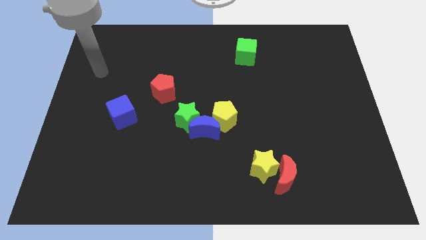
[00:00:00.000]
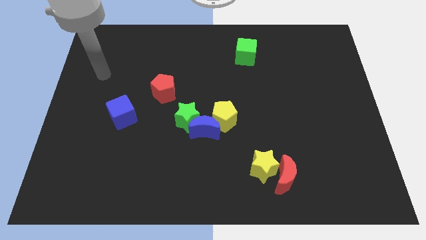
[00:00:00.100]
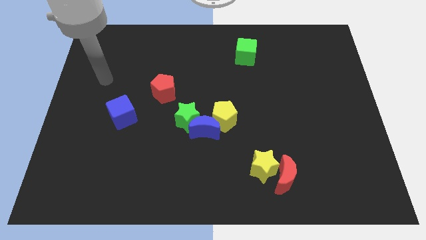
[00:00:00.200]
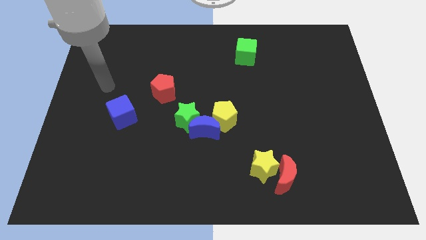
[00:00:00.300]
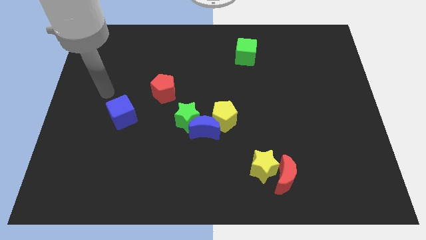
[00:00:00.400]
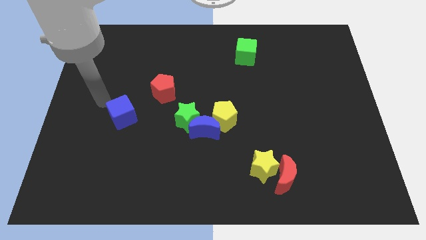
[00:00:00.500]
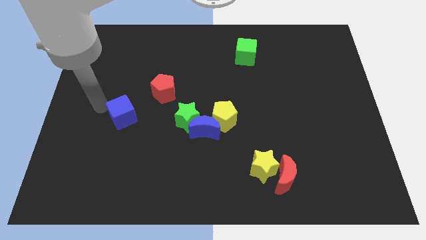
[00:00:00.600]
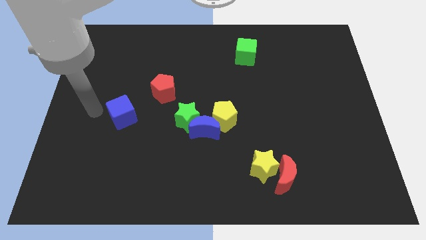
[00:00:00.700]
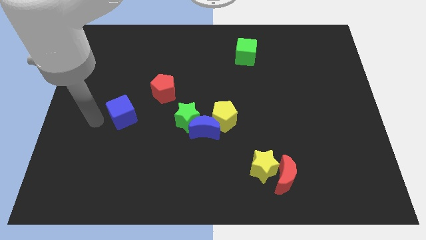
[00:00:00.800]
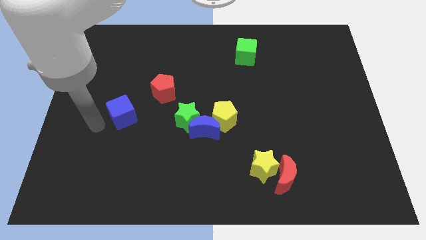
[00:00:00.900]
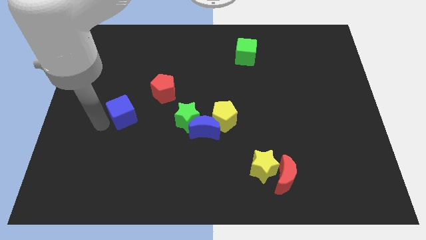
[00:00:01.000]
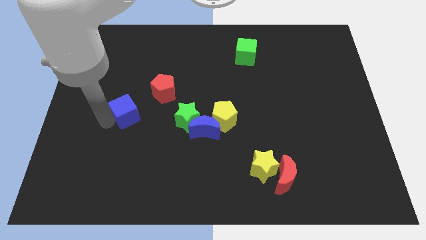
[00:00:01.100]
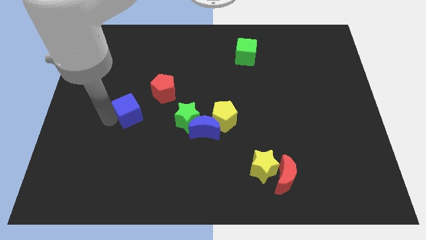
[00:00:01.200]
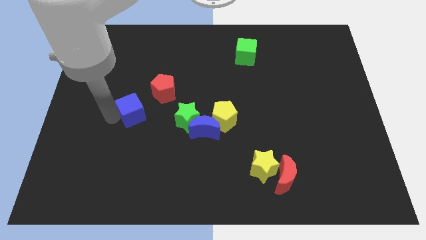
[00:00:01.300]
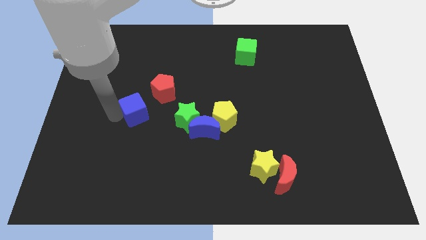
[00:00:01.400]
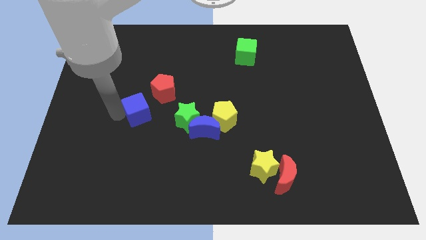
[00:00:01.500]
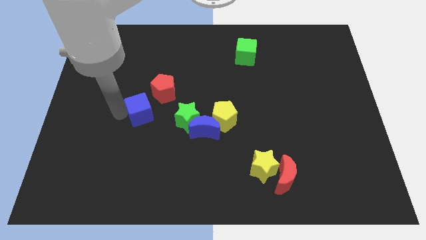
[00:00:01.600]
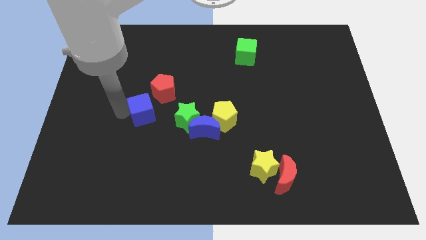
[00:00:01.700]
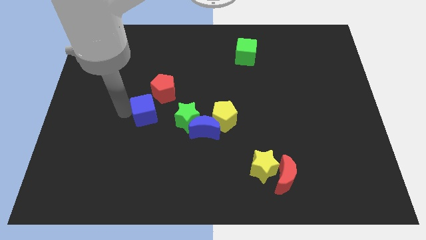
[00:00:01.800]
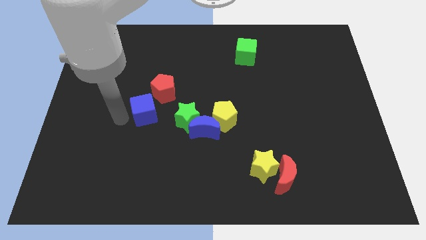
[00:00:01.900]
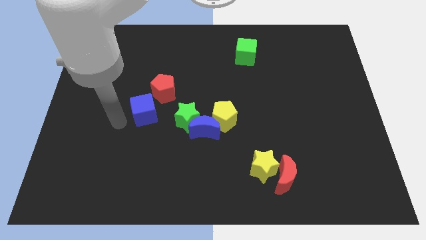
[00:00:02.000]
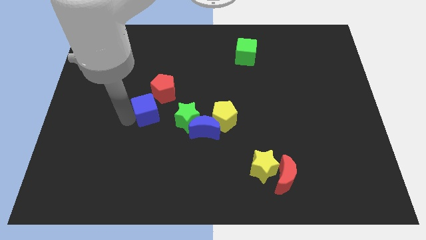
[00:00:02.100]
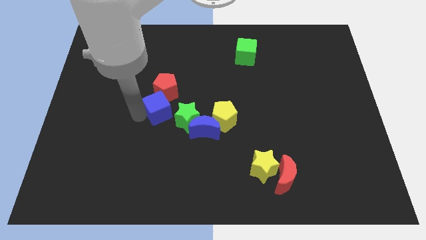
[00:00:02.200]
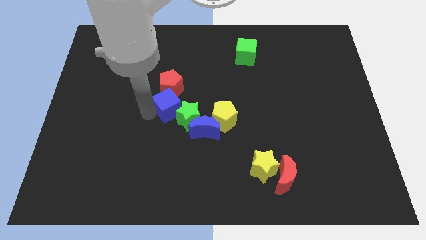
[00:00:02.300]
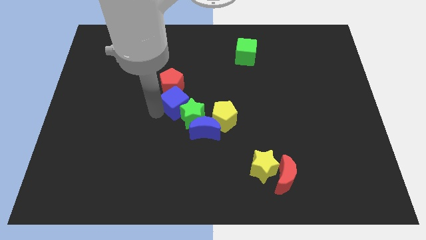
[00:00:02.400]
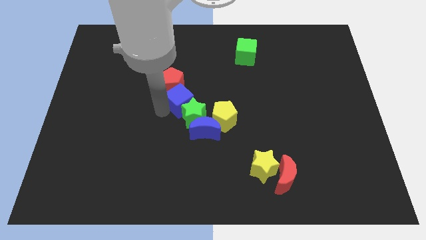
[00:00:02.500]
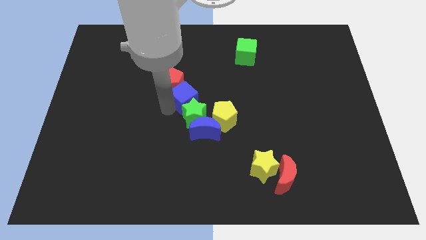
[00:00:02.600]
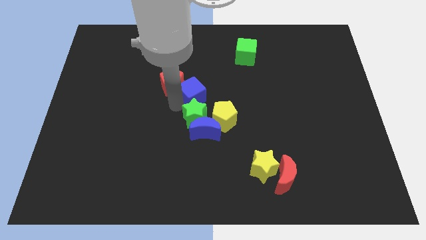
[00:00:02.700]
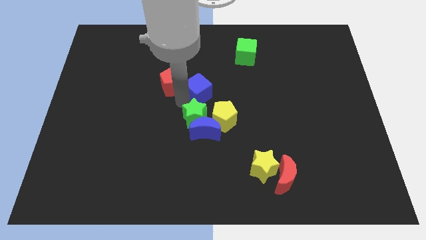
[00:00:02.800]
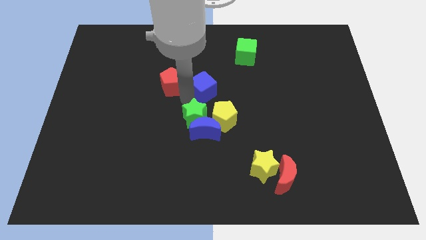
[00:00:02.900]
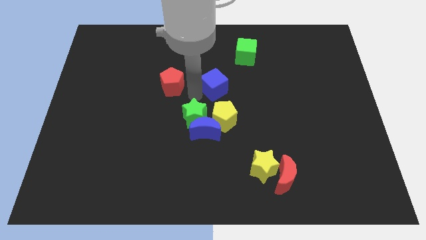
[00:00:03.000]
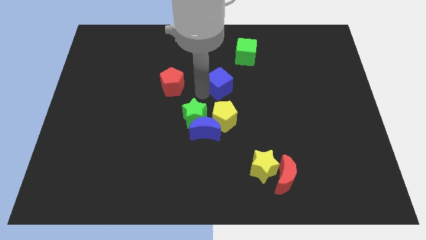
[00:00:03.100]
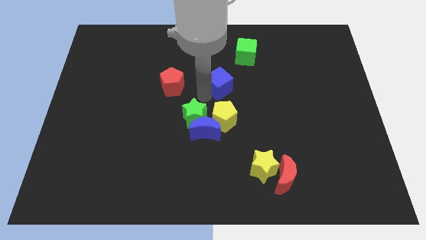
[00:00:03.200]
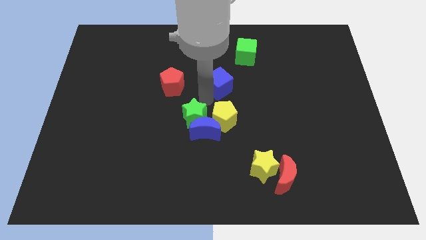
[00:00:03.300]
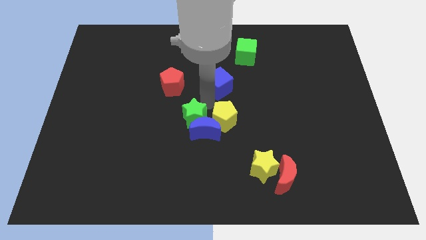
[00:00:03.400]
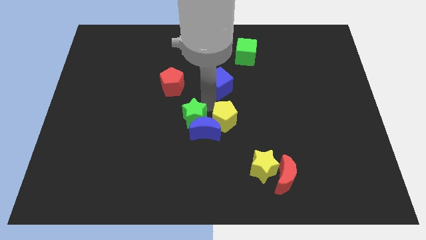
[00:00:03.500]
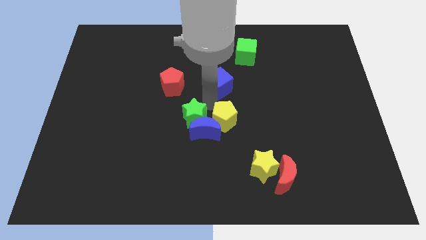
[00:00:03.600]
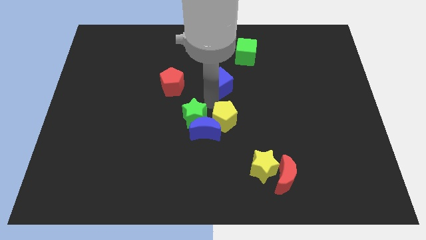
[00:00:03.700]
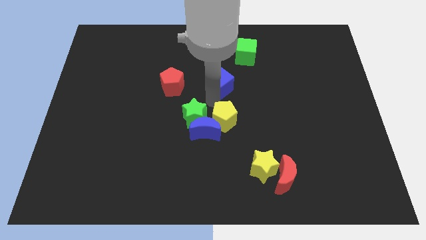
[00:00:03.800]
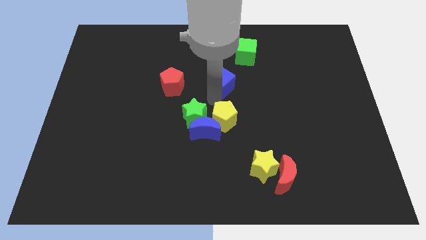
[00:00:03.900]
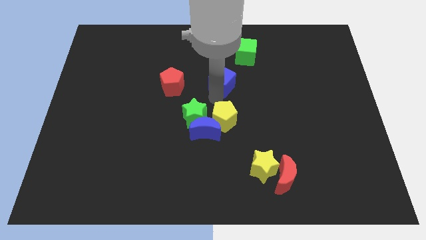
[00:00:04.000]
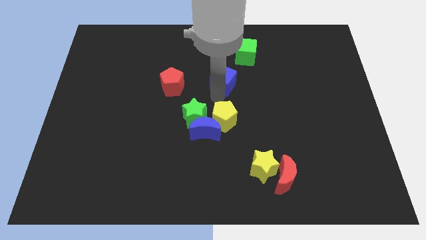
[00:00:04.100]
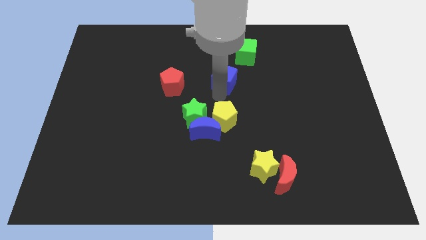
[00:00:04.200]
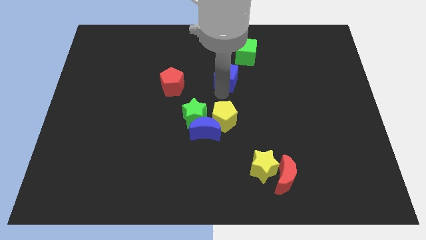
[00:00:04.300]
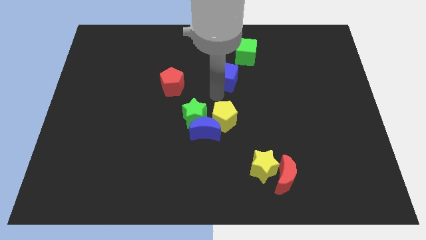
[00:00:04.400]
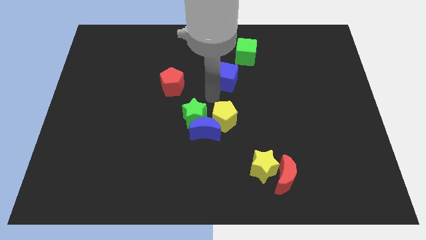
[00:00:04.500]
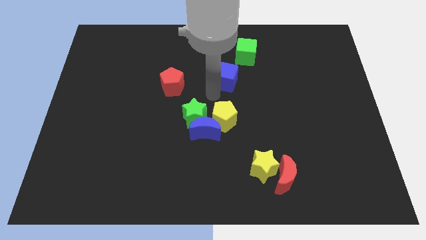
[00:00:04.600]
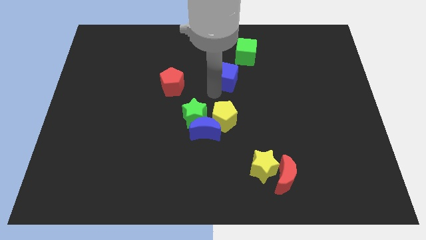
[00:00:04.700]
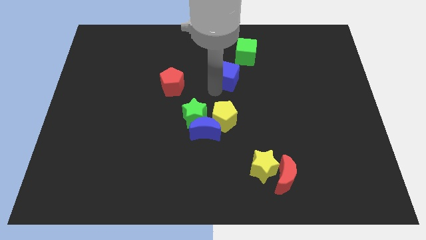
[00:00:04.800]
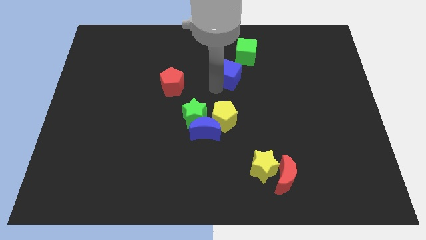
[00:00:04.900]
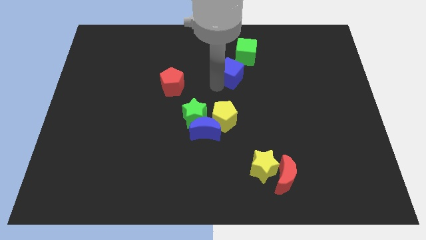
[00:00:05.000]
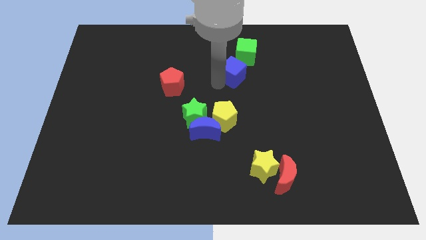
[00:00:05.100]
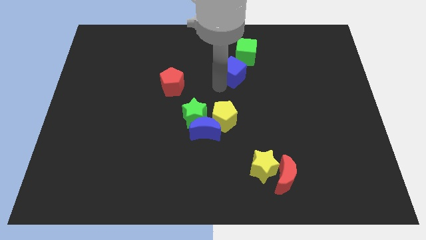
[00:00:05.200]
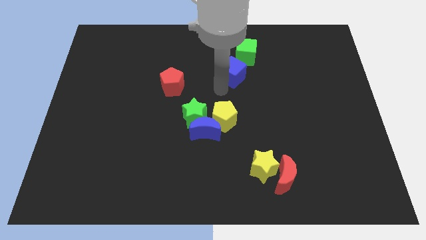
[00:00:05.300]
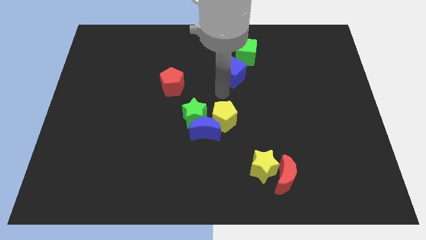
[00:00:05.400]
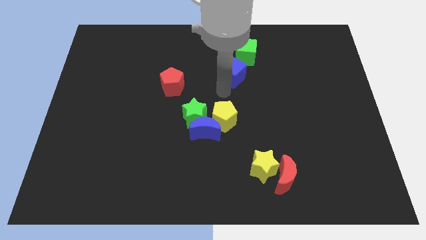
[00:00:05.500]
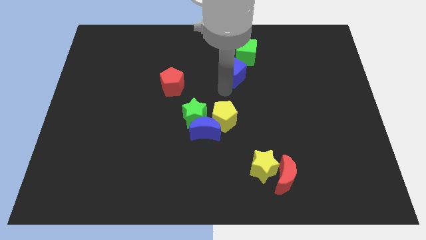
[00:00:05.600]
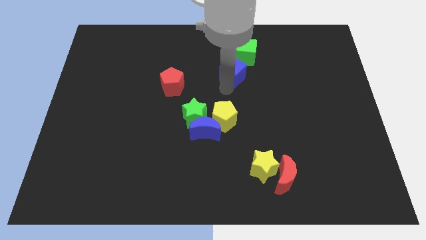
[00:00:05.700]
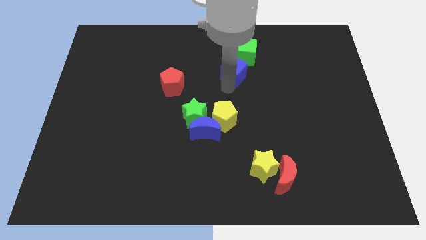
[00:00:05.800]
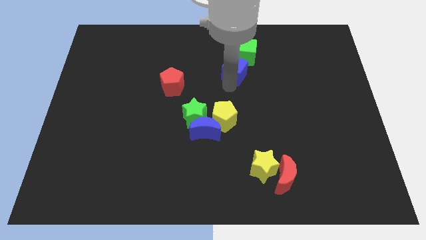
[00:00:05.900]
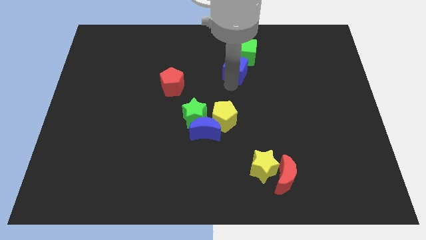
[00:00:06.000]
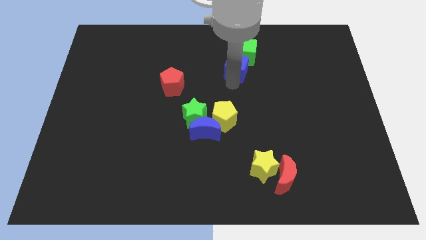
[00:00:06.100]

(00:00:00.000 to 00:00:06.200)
push the blue cube close to the green cube

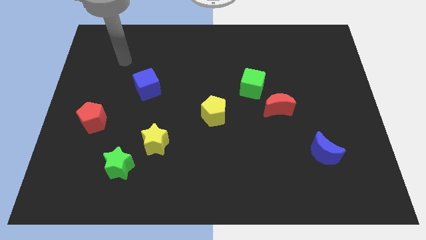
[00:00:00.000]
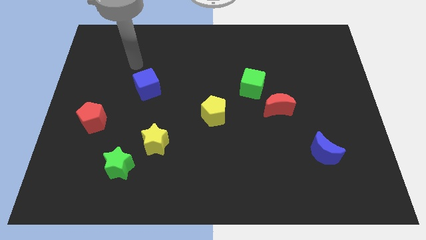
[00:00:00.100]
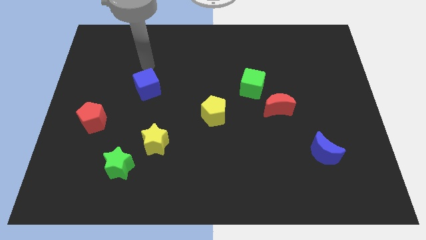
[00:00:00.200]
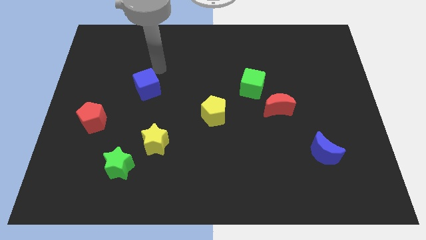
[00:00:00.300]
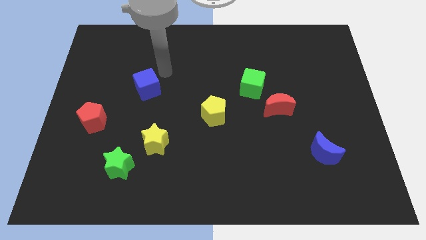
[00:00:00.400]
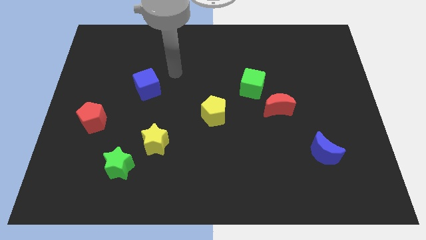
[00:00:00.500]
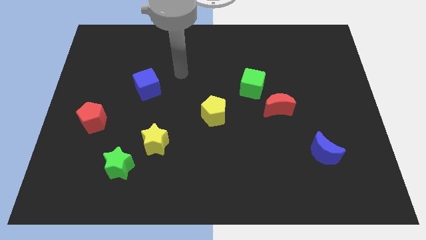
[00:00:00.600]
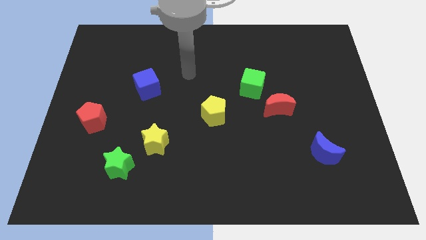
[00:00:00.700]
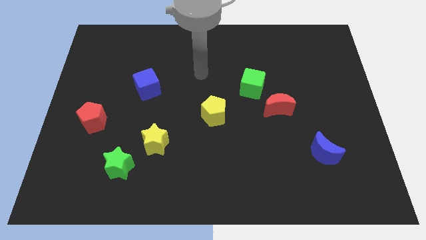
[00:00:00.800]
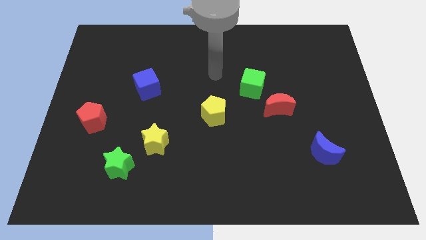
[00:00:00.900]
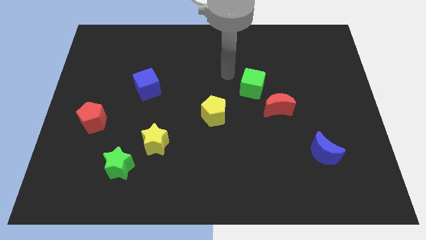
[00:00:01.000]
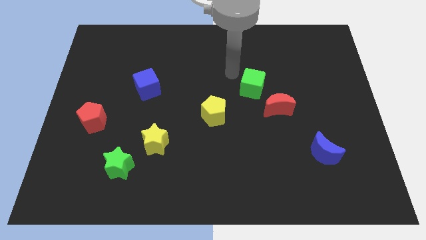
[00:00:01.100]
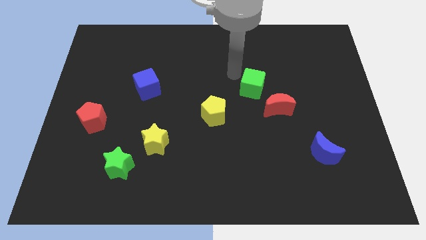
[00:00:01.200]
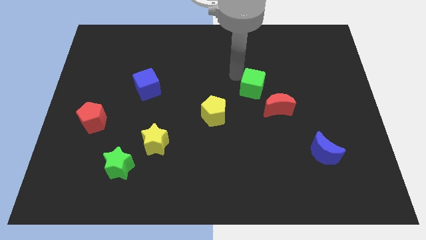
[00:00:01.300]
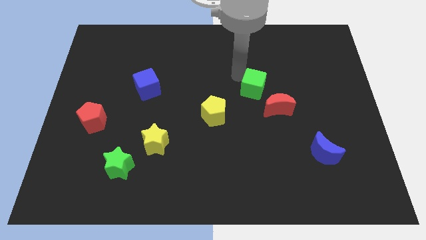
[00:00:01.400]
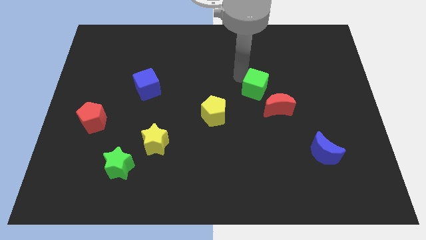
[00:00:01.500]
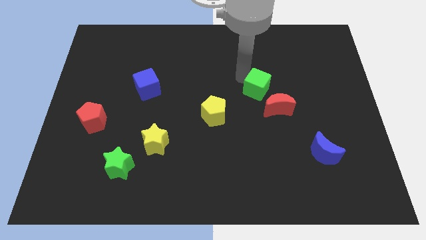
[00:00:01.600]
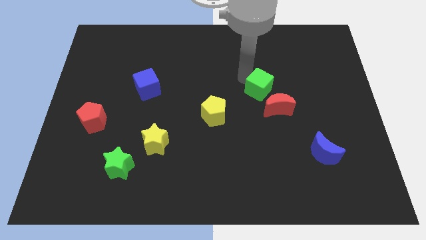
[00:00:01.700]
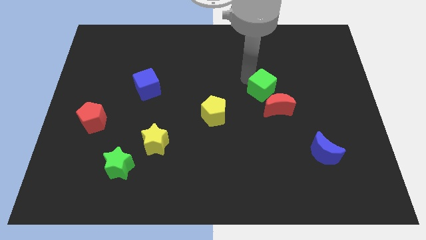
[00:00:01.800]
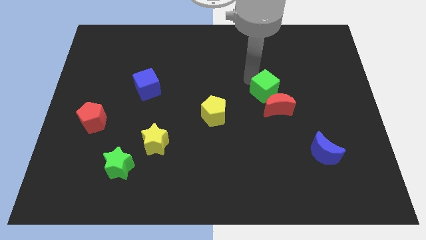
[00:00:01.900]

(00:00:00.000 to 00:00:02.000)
move the green cube next to the red moon
